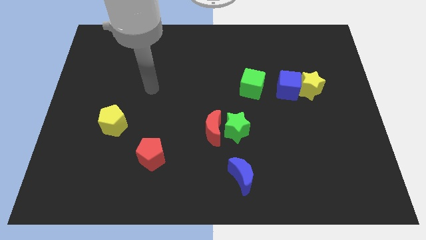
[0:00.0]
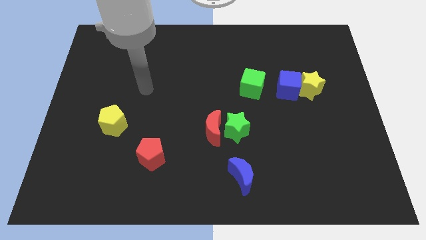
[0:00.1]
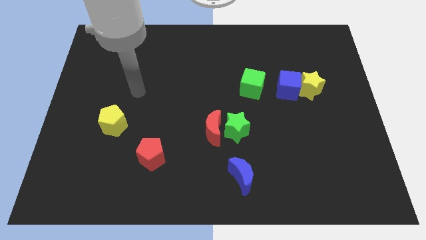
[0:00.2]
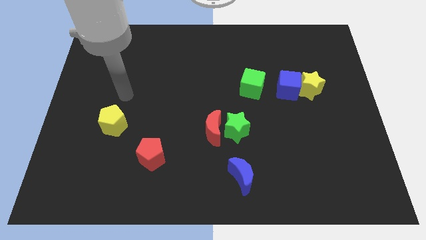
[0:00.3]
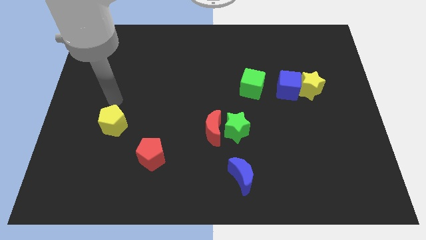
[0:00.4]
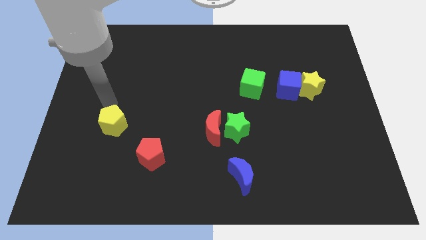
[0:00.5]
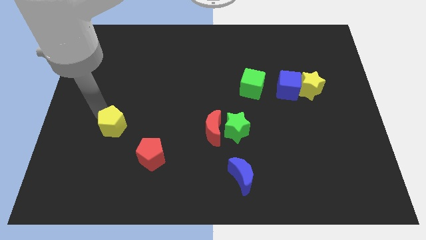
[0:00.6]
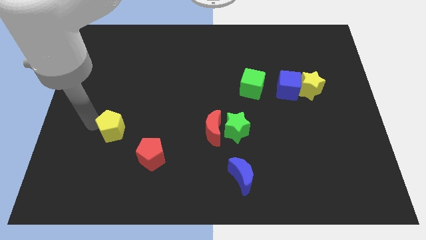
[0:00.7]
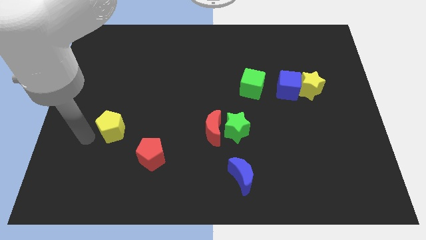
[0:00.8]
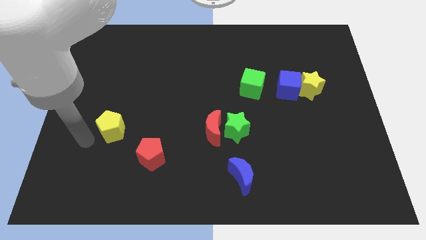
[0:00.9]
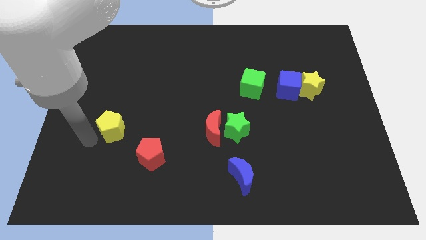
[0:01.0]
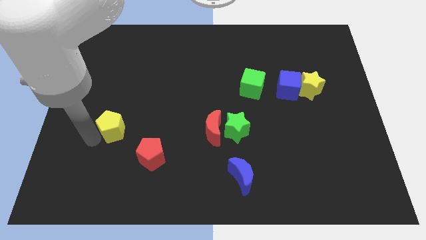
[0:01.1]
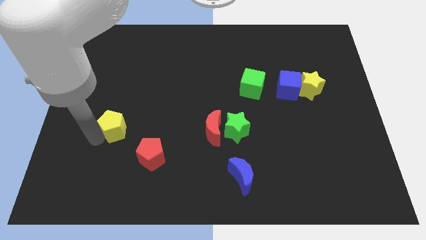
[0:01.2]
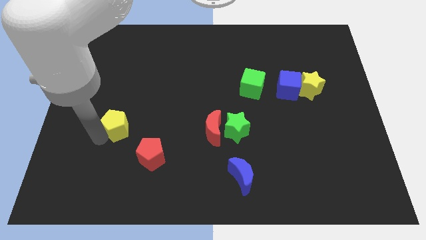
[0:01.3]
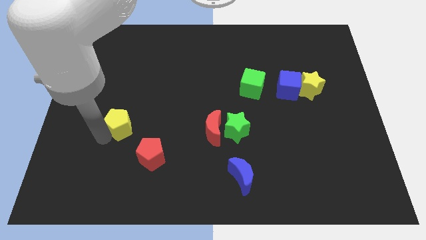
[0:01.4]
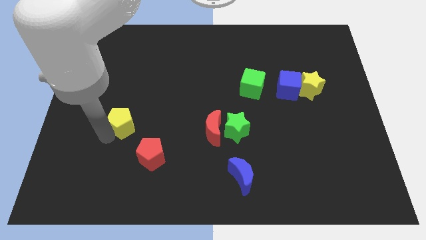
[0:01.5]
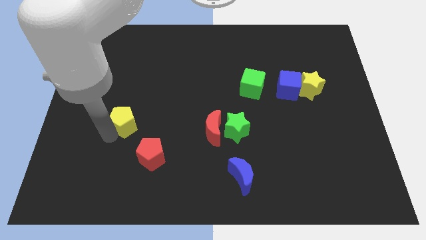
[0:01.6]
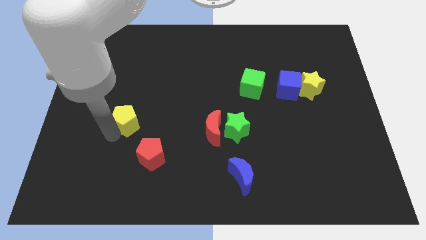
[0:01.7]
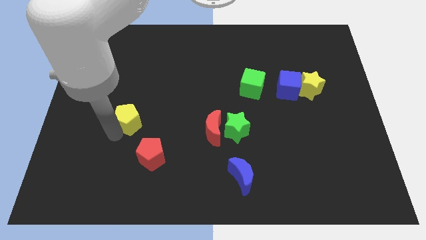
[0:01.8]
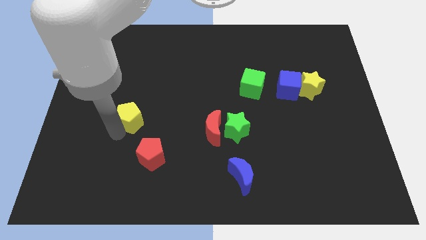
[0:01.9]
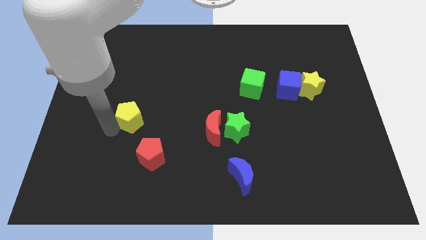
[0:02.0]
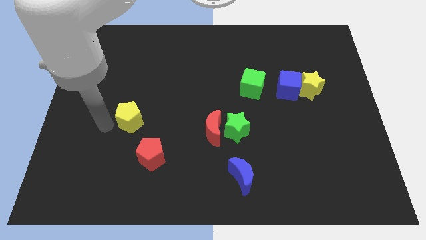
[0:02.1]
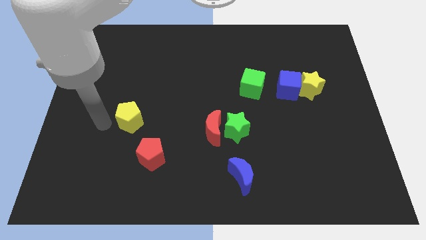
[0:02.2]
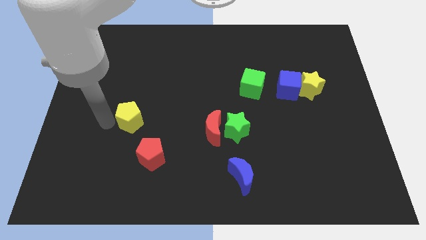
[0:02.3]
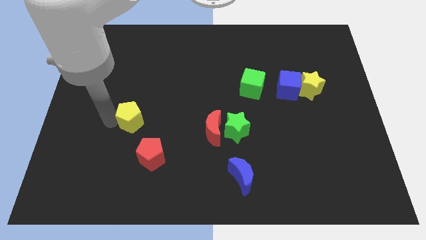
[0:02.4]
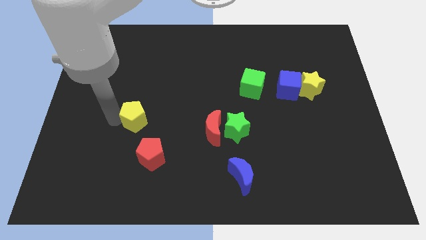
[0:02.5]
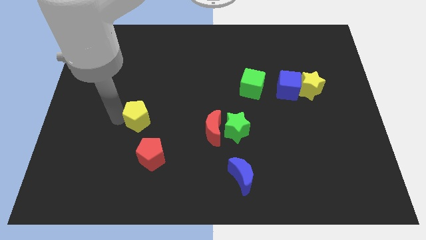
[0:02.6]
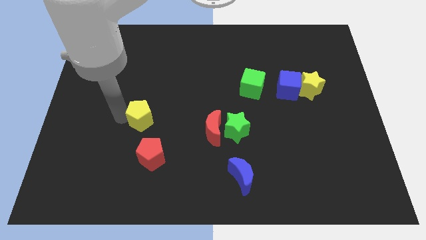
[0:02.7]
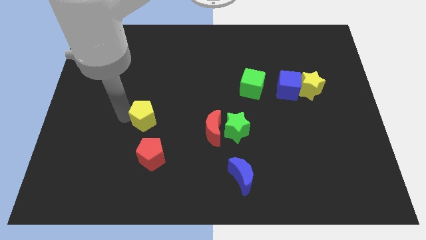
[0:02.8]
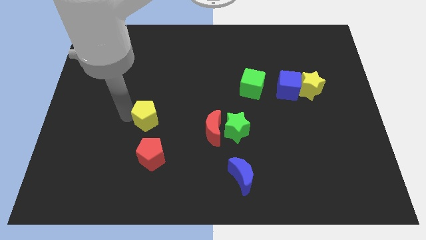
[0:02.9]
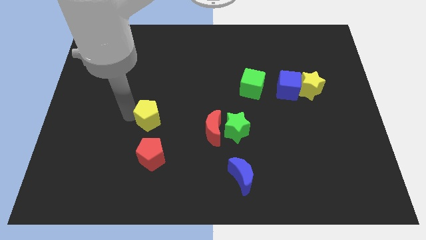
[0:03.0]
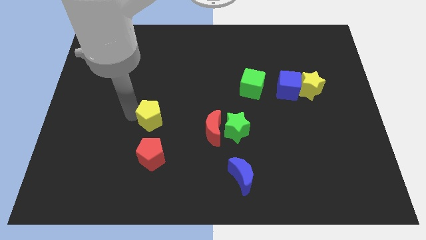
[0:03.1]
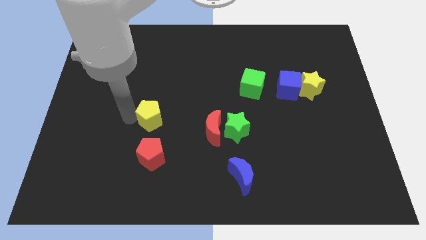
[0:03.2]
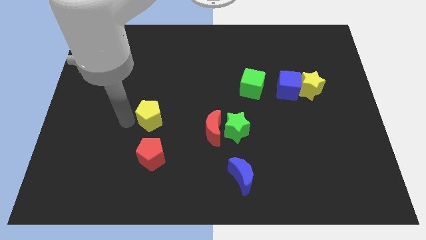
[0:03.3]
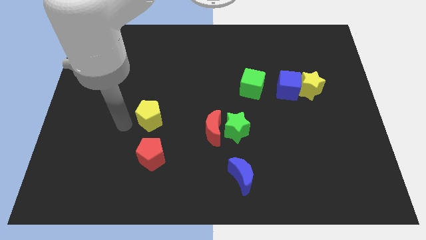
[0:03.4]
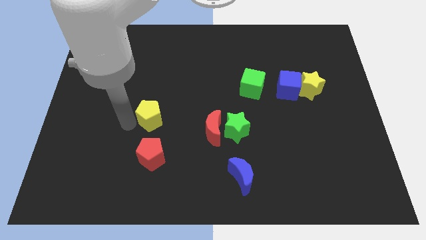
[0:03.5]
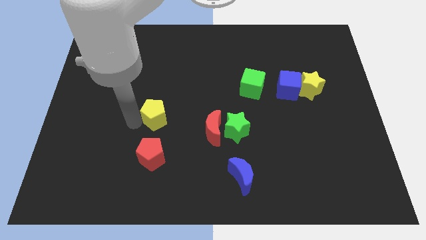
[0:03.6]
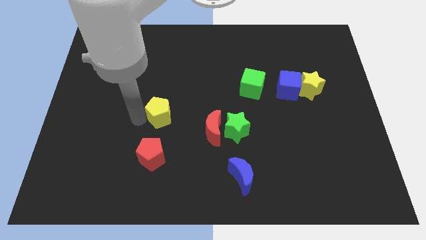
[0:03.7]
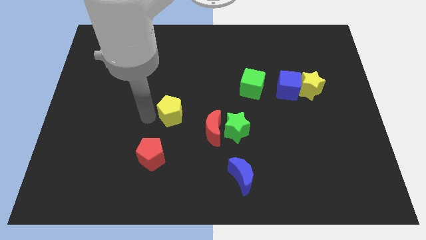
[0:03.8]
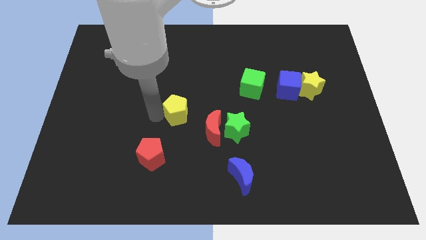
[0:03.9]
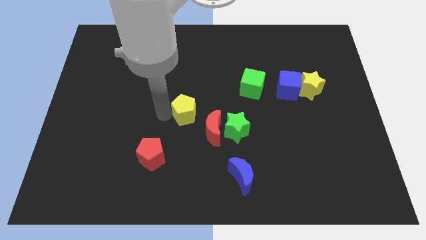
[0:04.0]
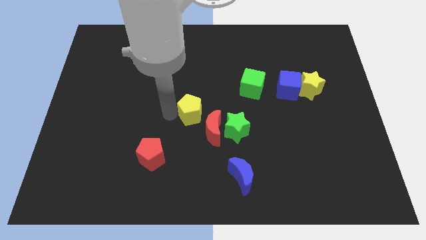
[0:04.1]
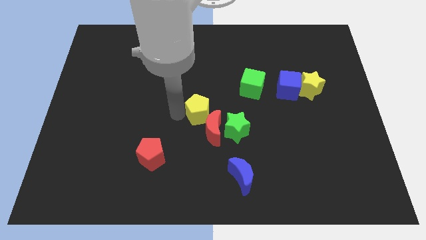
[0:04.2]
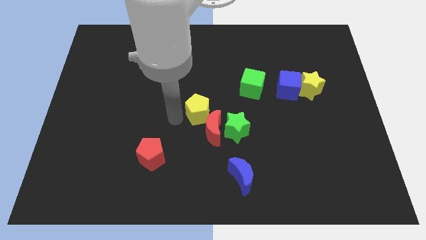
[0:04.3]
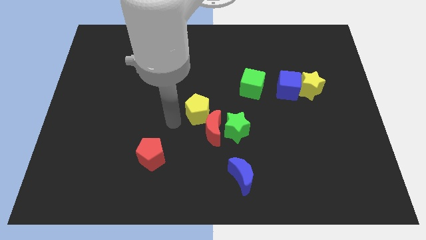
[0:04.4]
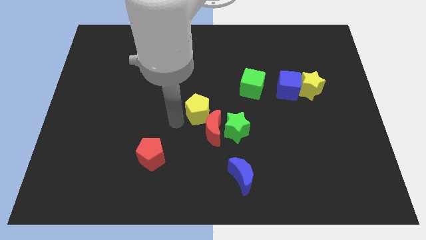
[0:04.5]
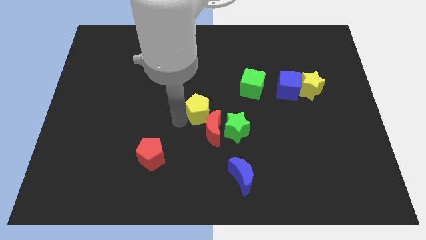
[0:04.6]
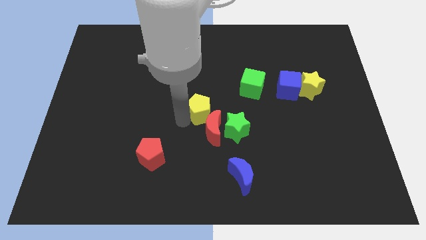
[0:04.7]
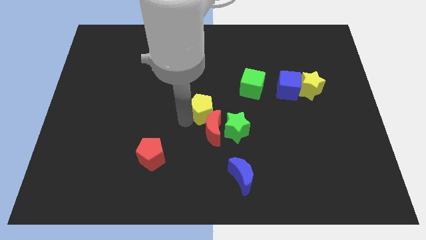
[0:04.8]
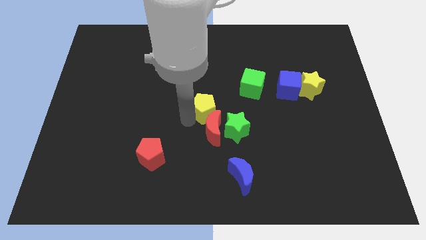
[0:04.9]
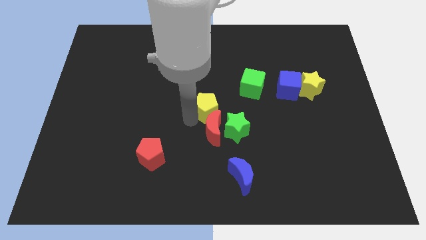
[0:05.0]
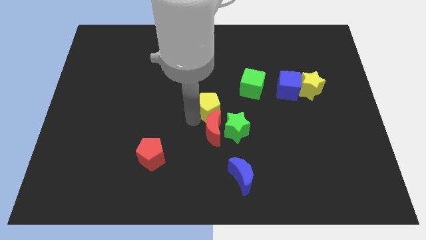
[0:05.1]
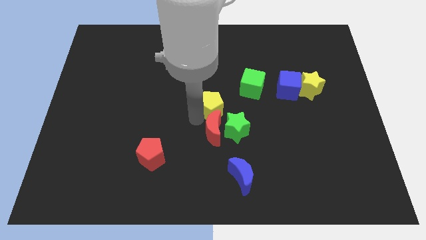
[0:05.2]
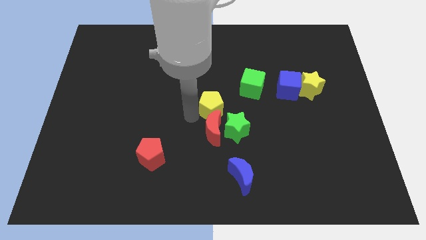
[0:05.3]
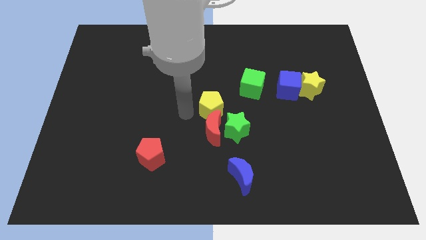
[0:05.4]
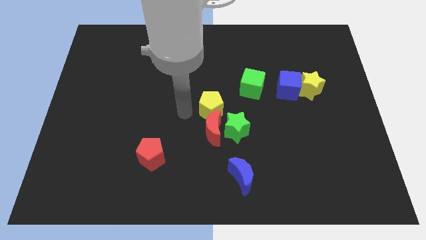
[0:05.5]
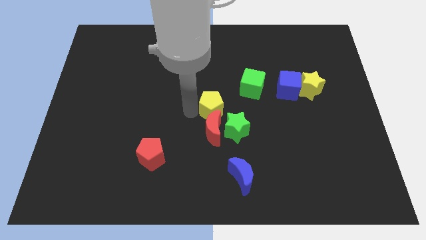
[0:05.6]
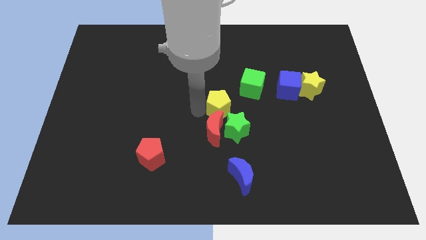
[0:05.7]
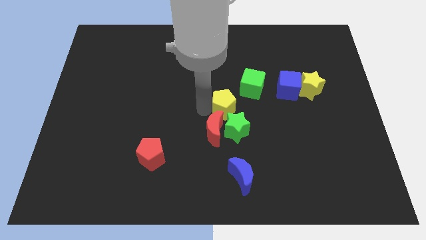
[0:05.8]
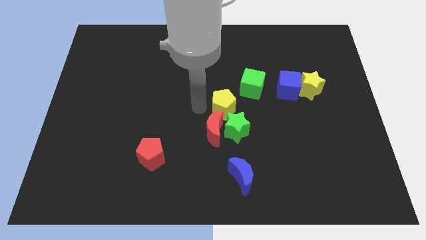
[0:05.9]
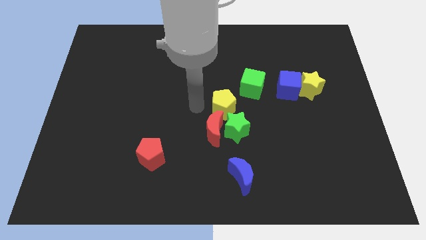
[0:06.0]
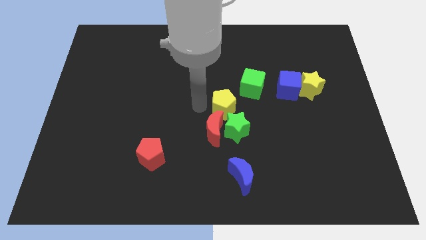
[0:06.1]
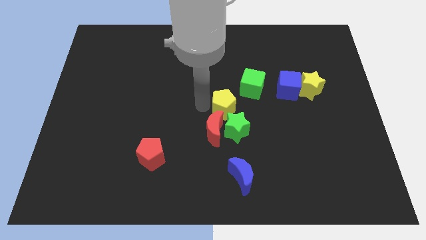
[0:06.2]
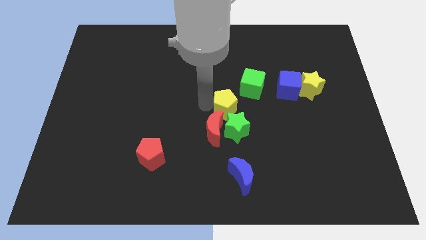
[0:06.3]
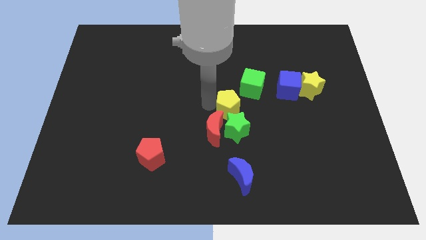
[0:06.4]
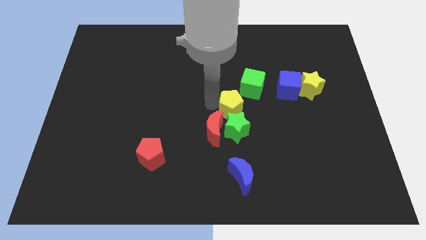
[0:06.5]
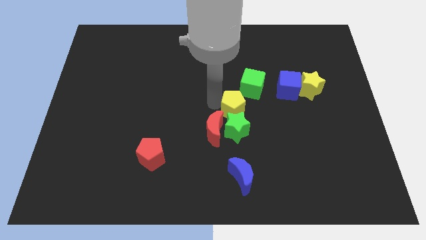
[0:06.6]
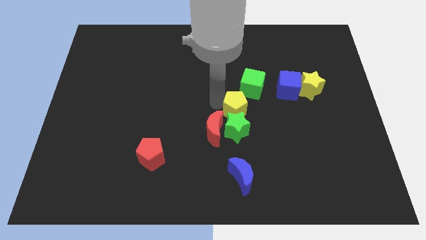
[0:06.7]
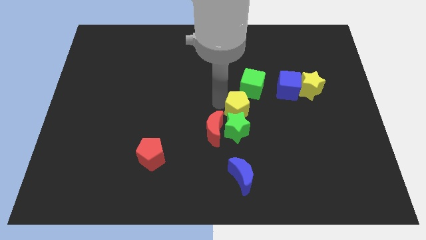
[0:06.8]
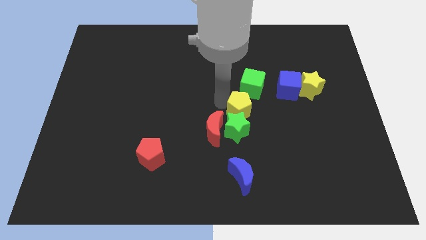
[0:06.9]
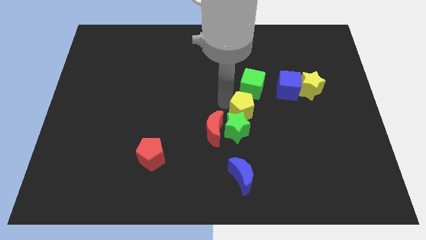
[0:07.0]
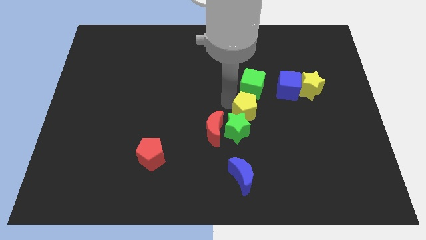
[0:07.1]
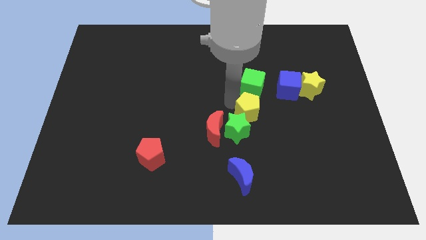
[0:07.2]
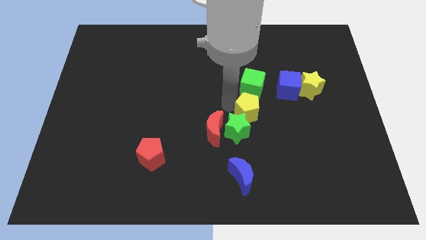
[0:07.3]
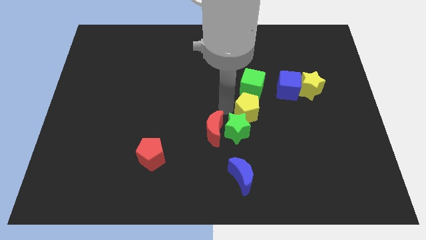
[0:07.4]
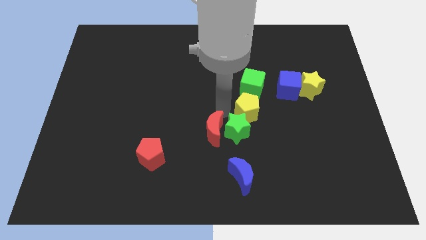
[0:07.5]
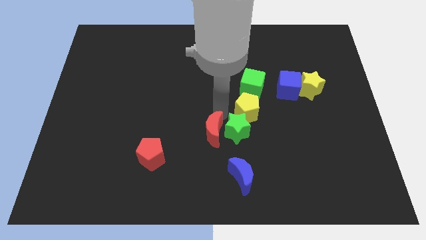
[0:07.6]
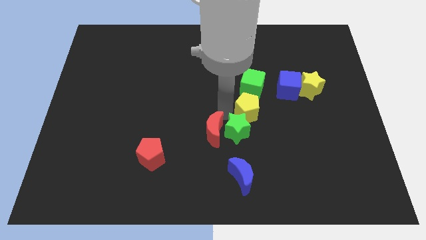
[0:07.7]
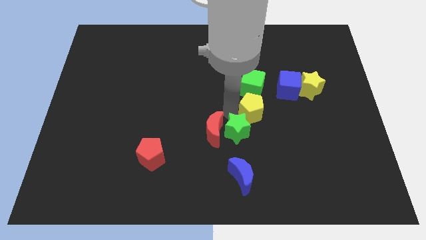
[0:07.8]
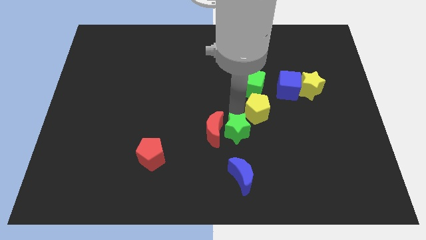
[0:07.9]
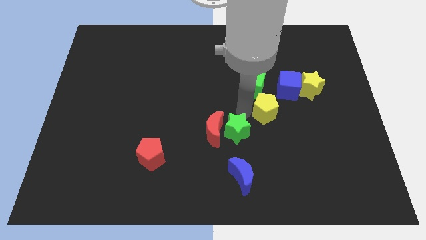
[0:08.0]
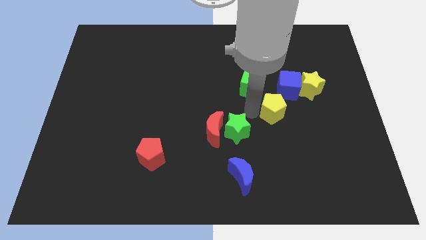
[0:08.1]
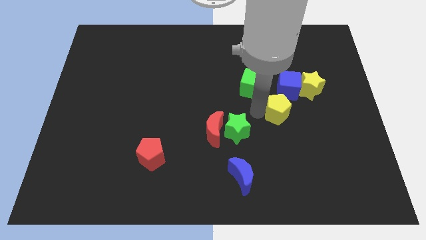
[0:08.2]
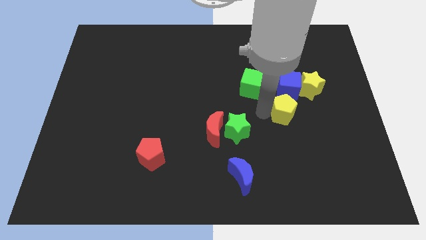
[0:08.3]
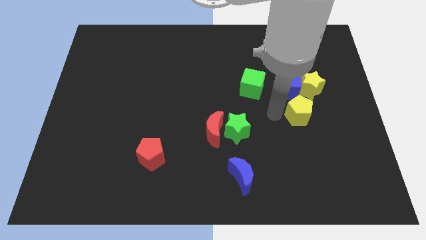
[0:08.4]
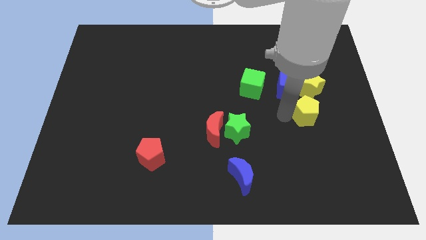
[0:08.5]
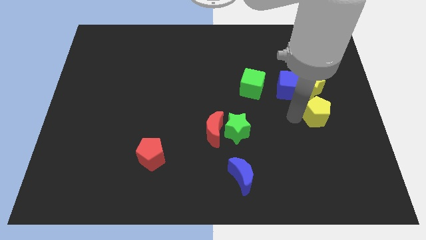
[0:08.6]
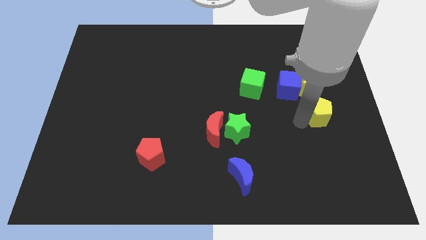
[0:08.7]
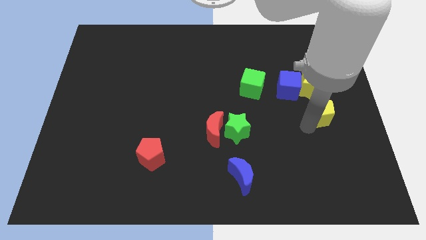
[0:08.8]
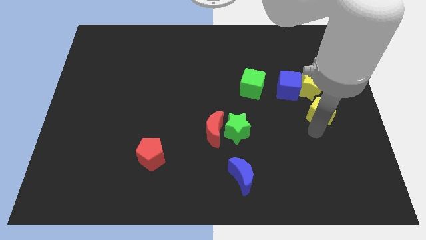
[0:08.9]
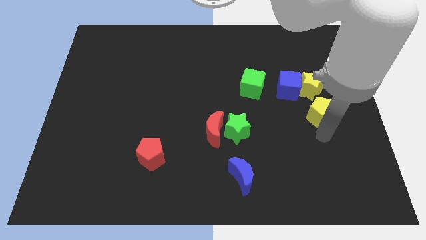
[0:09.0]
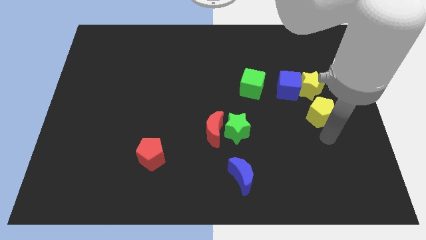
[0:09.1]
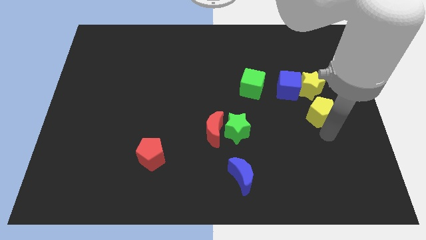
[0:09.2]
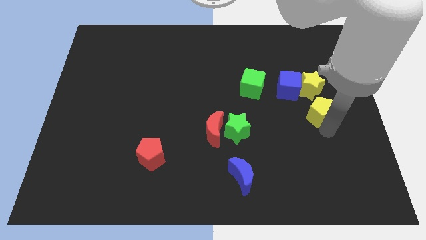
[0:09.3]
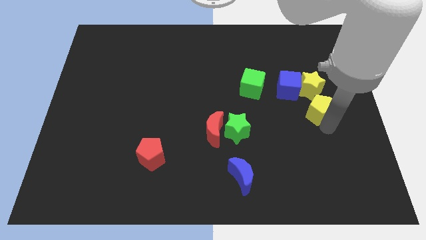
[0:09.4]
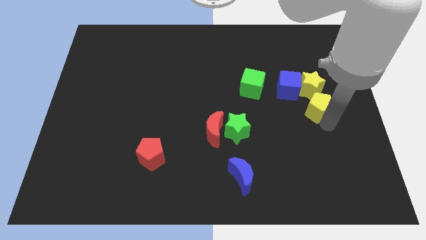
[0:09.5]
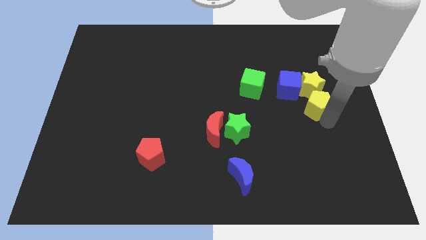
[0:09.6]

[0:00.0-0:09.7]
move the yellow pentagon towards the yellow star
